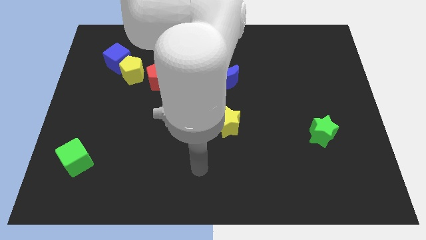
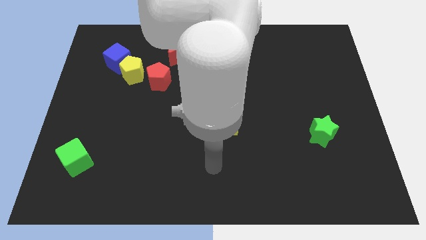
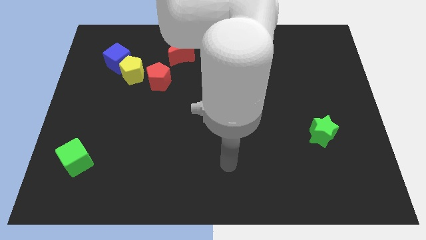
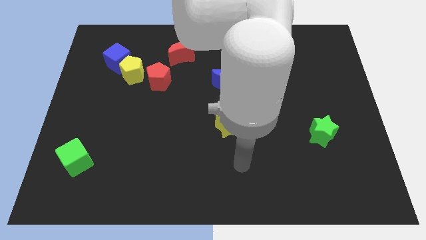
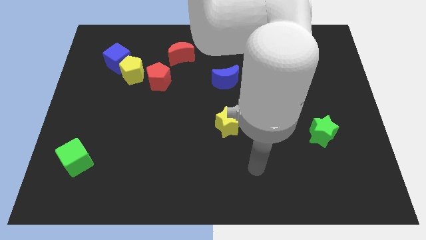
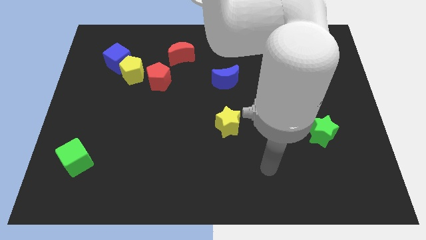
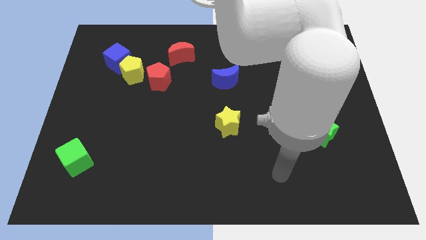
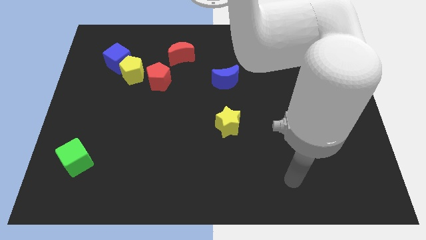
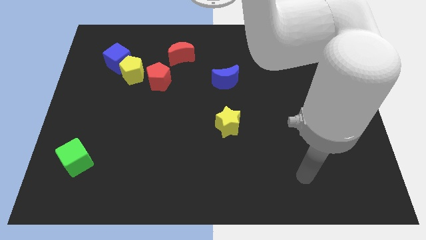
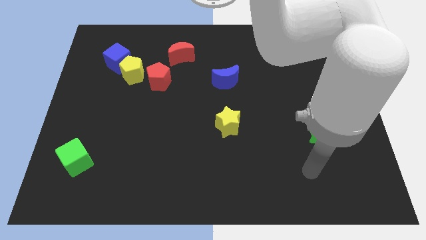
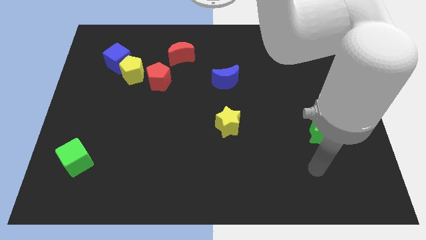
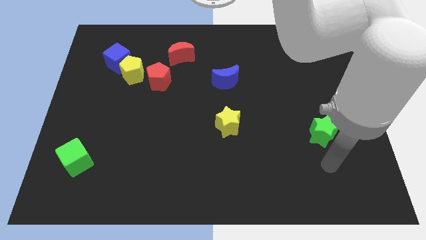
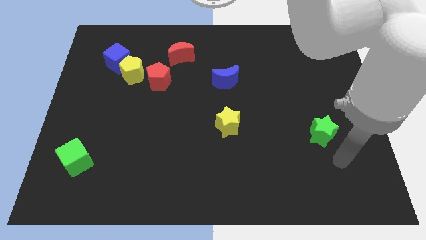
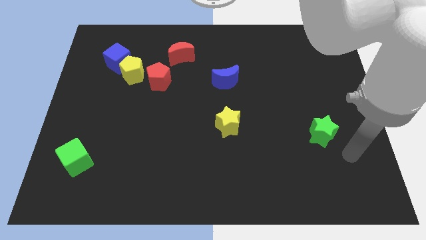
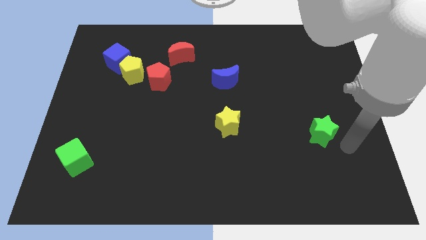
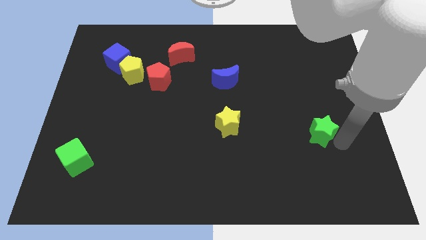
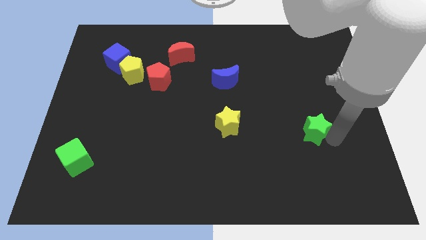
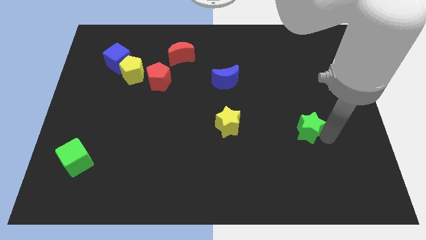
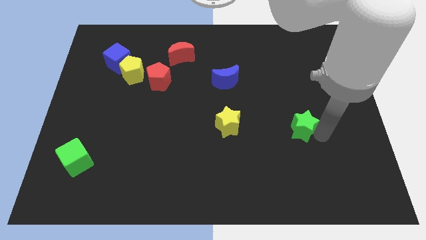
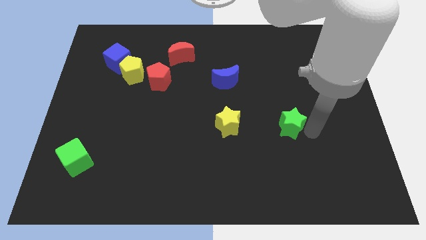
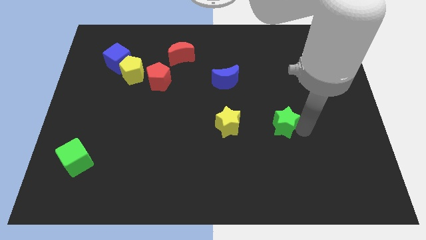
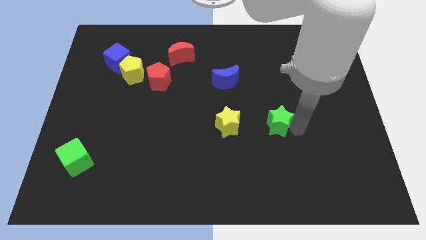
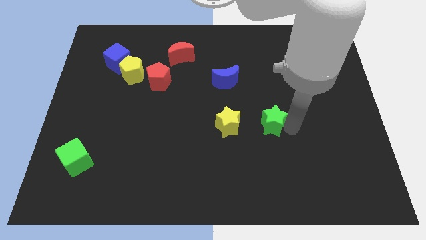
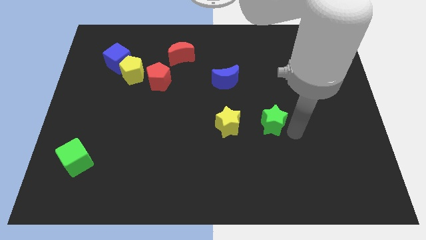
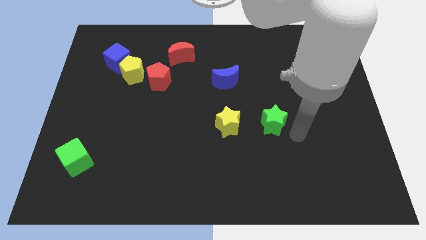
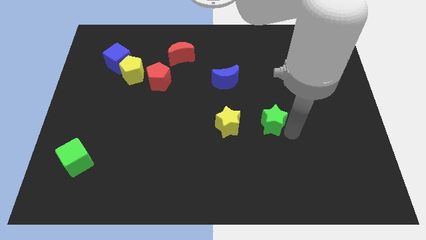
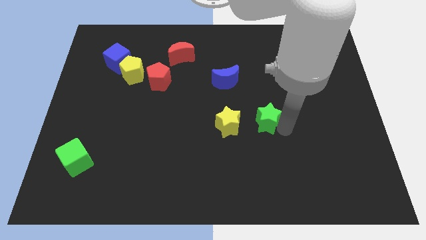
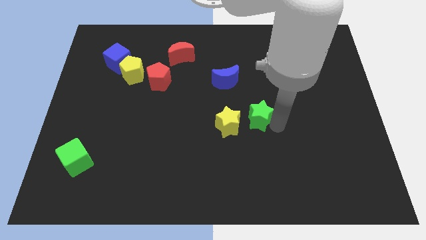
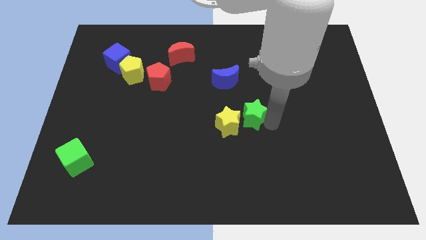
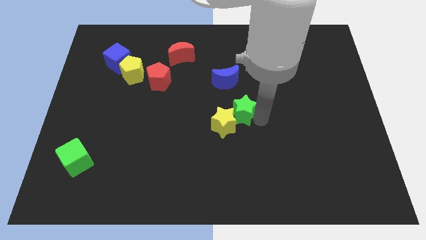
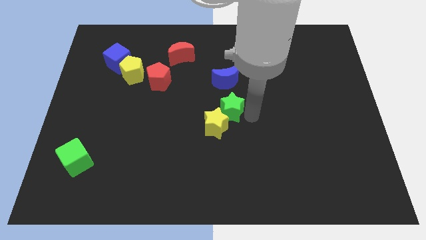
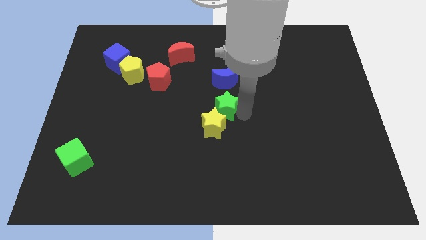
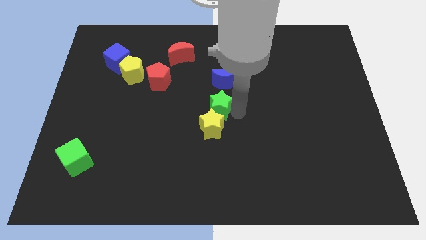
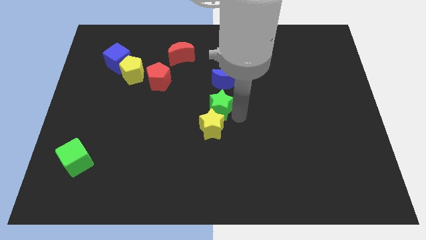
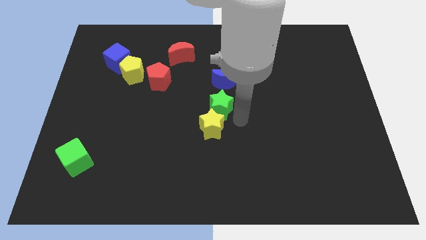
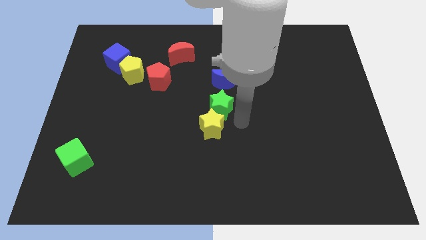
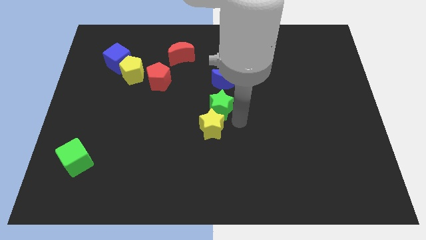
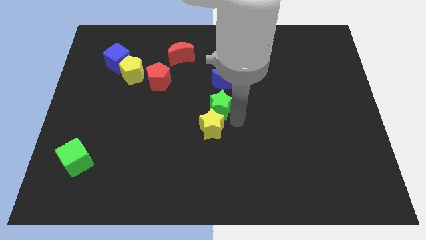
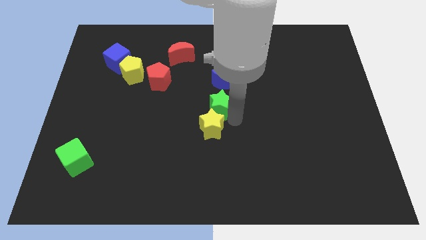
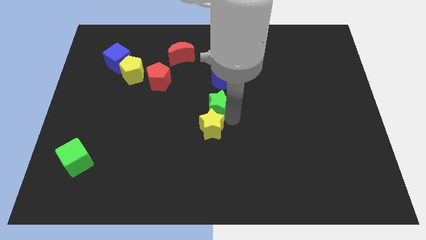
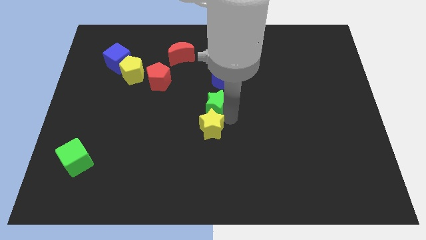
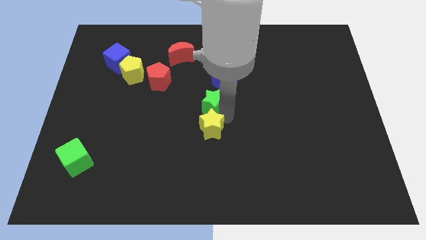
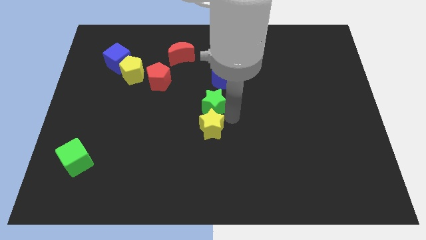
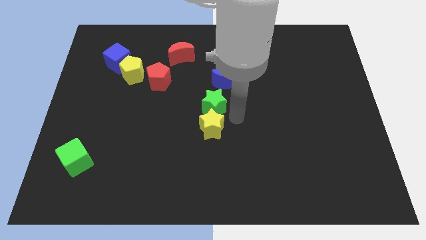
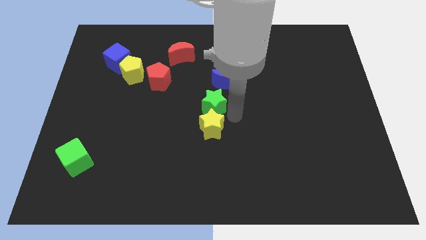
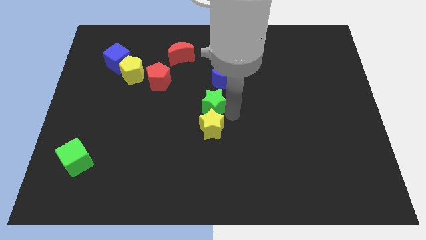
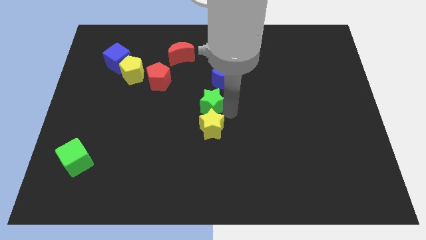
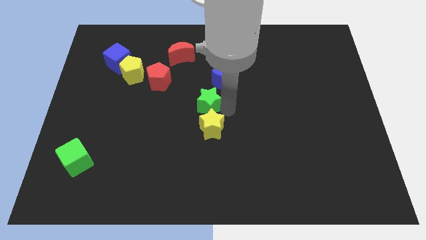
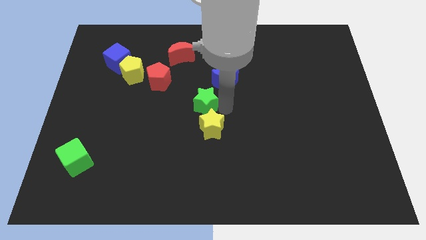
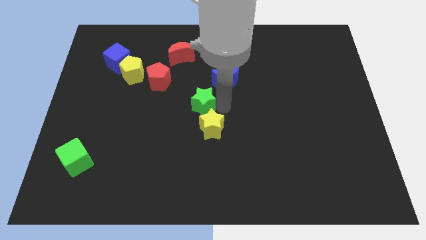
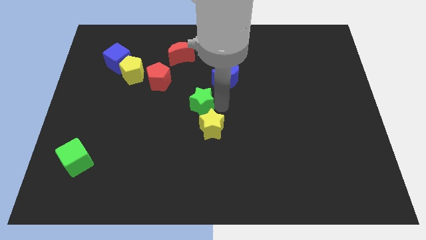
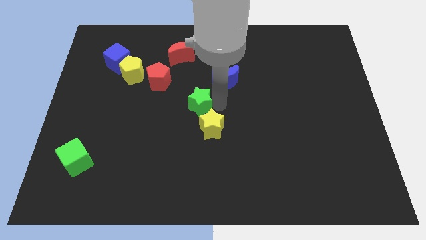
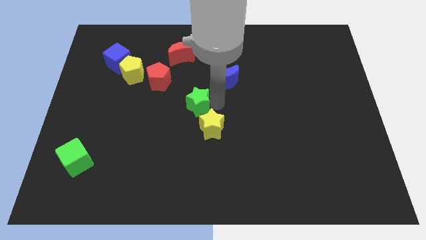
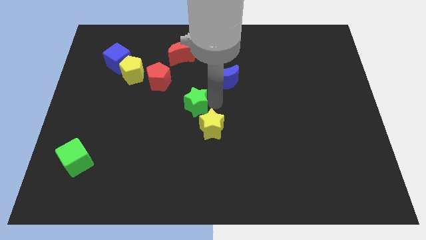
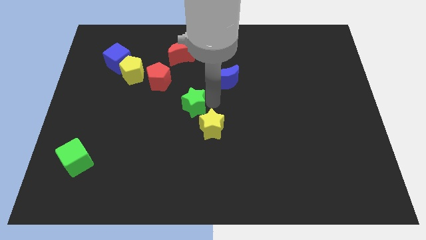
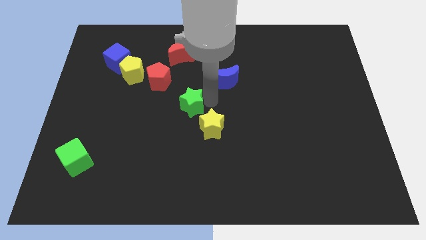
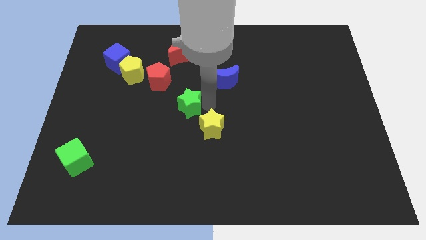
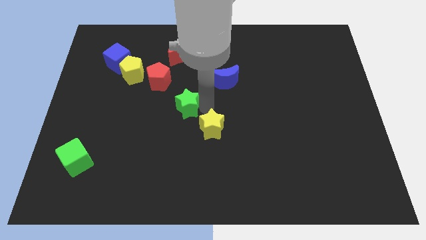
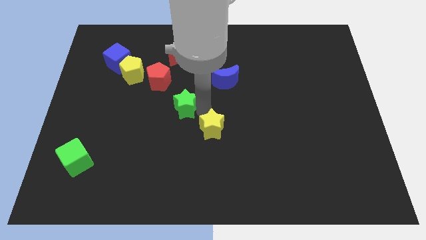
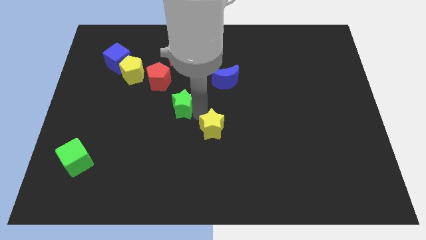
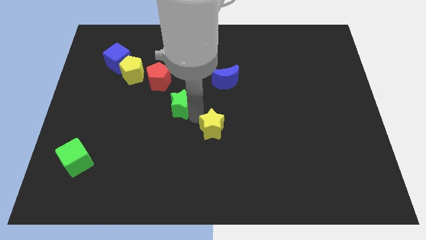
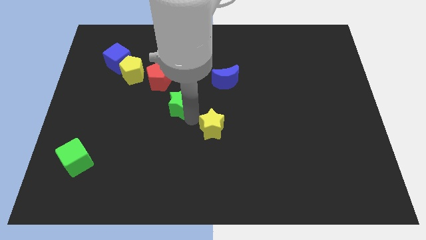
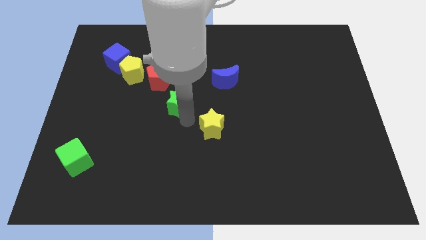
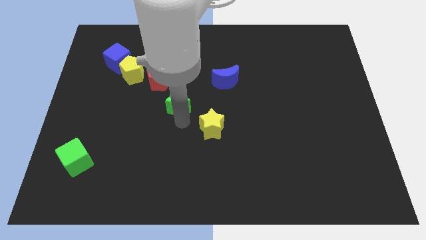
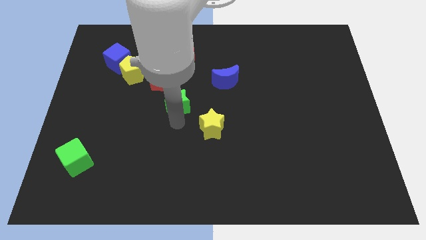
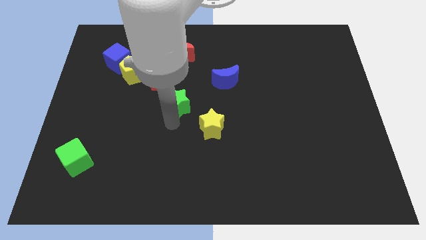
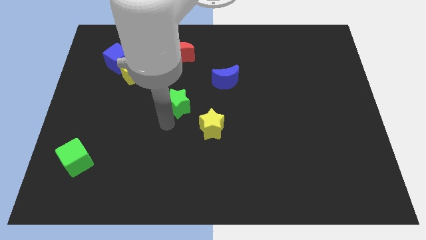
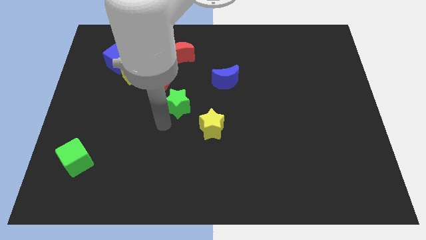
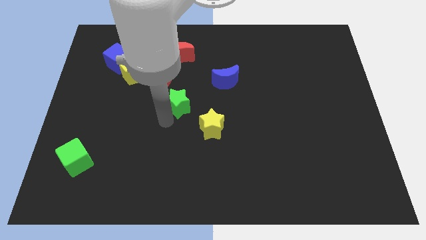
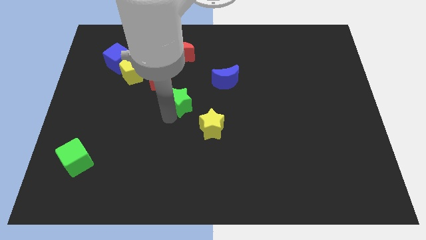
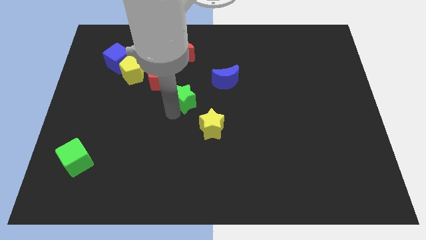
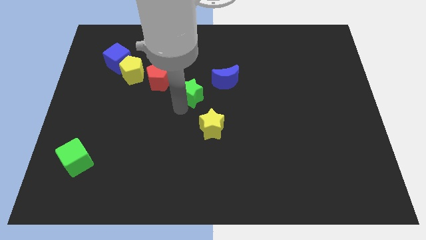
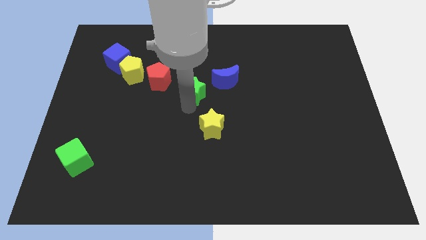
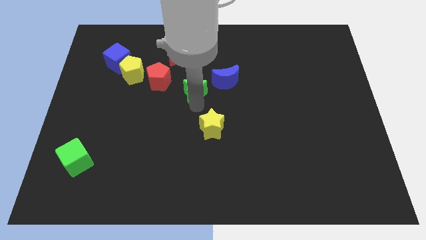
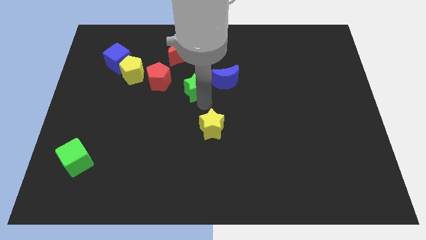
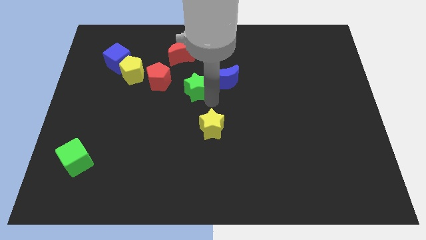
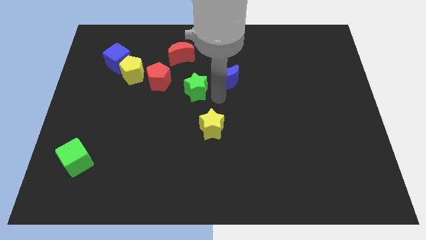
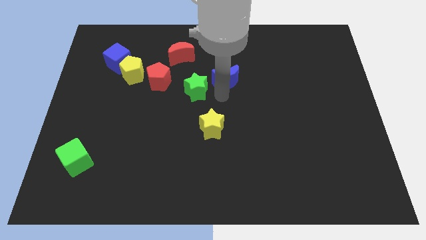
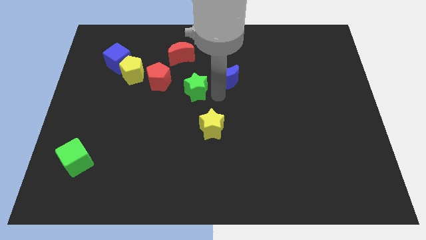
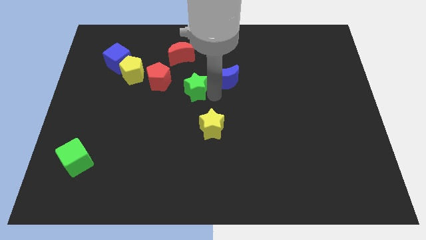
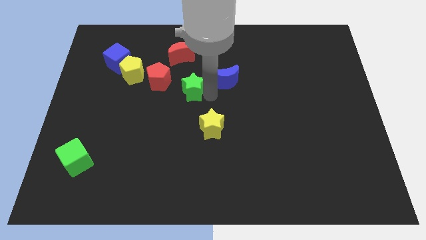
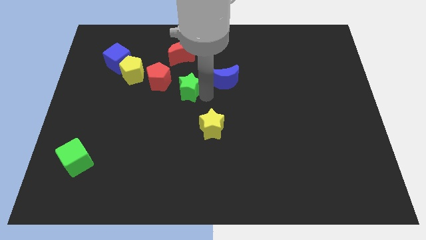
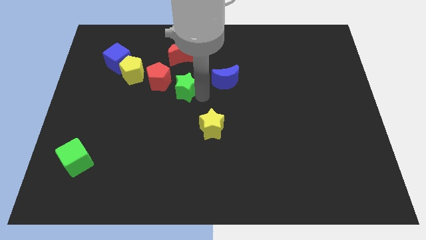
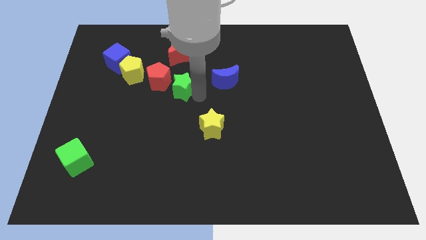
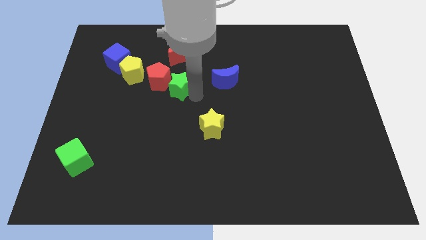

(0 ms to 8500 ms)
put the green star next to the red pentagon
